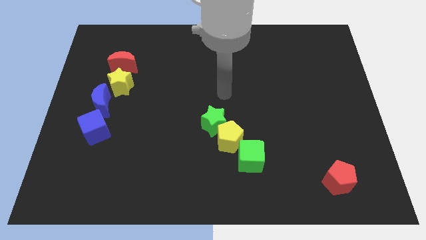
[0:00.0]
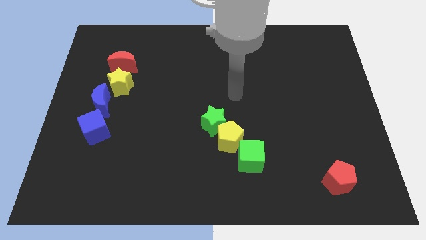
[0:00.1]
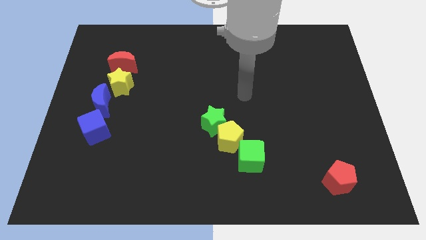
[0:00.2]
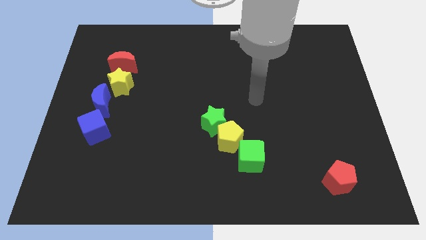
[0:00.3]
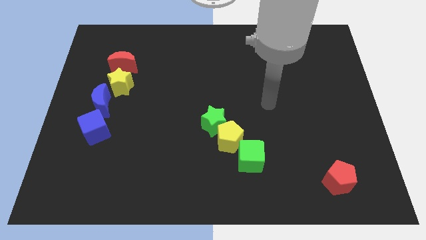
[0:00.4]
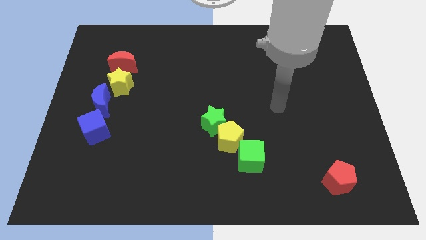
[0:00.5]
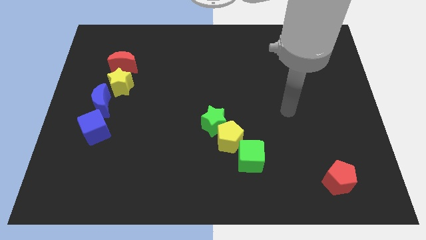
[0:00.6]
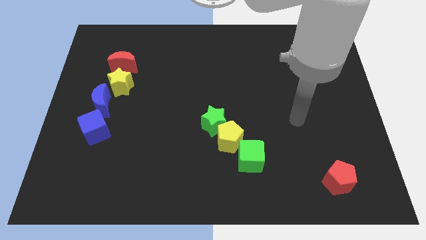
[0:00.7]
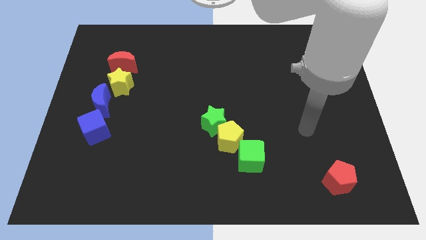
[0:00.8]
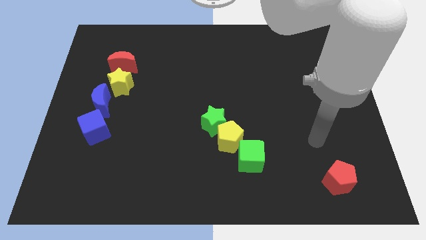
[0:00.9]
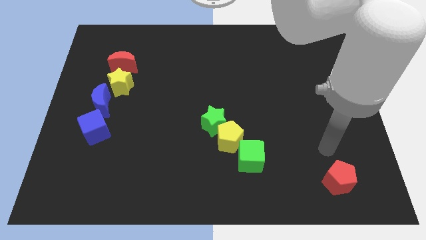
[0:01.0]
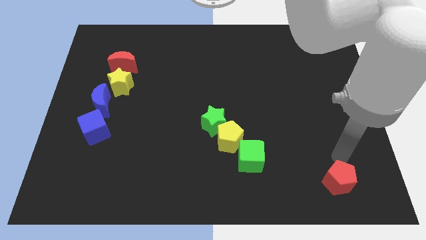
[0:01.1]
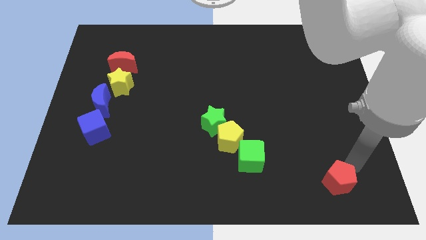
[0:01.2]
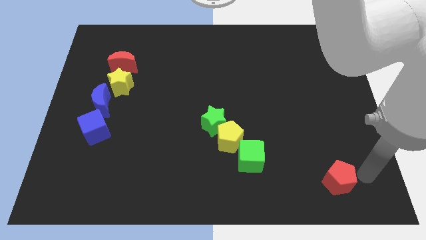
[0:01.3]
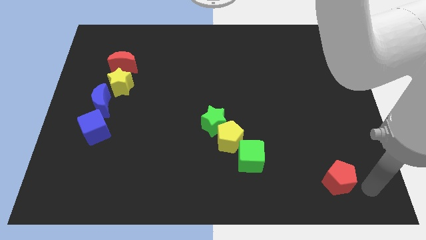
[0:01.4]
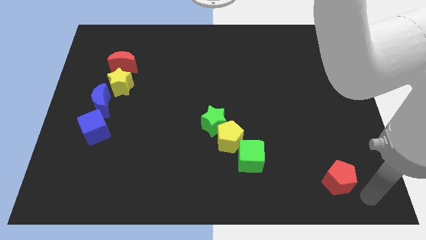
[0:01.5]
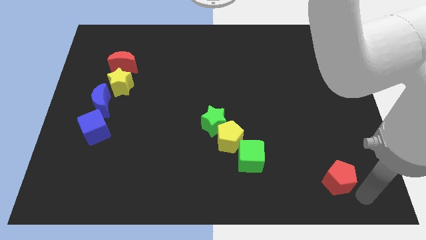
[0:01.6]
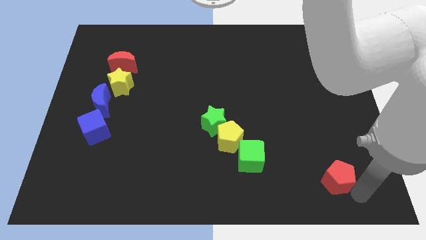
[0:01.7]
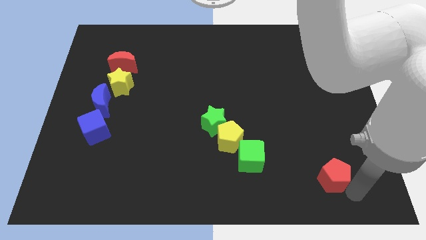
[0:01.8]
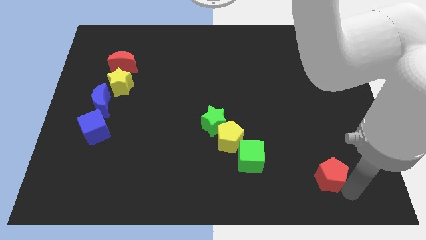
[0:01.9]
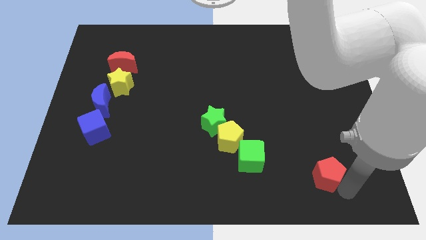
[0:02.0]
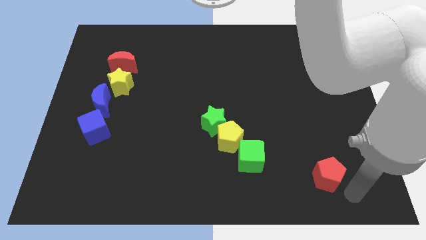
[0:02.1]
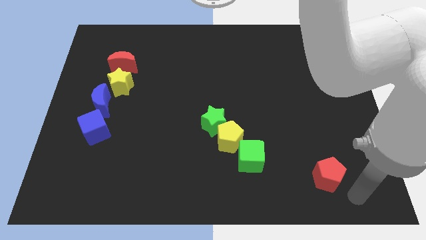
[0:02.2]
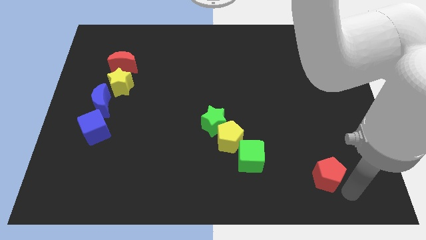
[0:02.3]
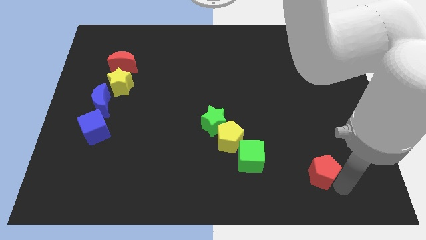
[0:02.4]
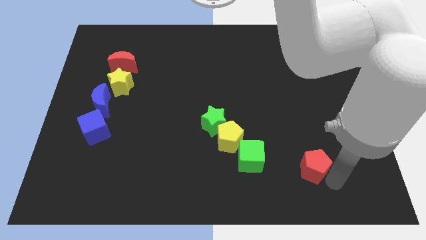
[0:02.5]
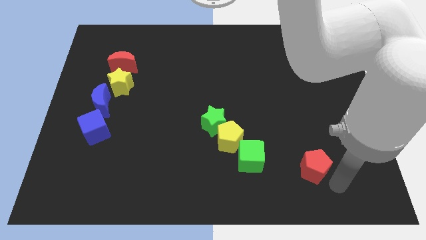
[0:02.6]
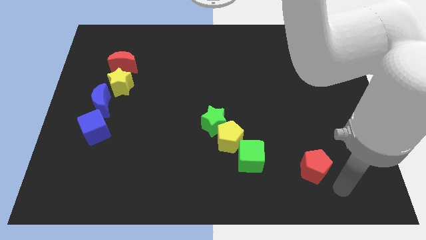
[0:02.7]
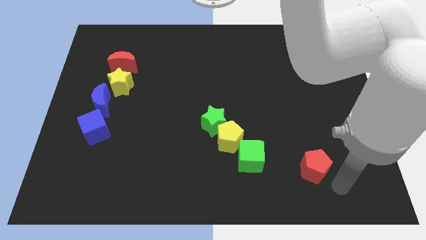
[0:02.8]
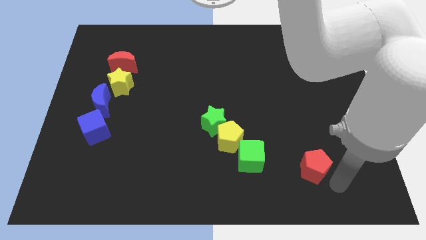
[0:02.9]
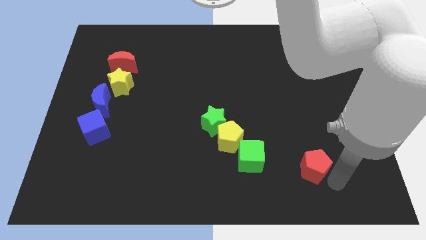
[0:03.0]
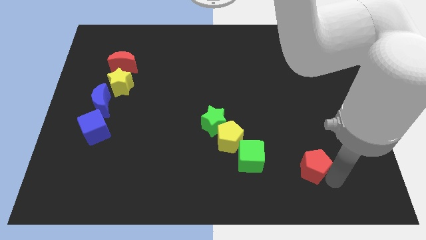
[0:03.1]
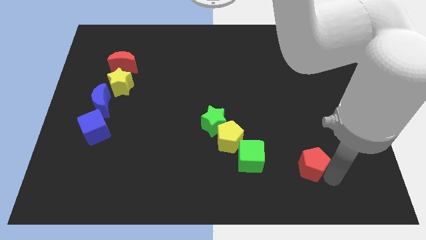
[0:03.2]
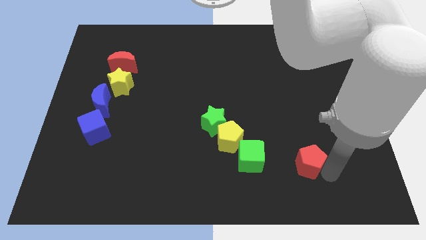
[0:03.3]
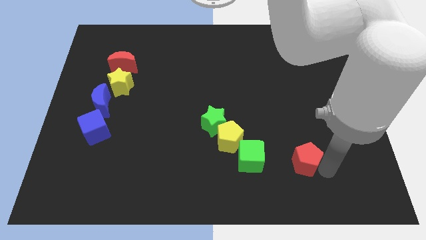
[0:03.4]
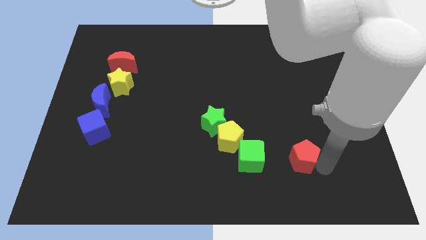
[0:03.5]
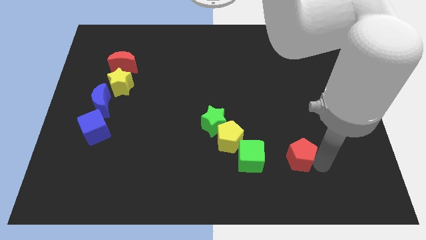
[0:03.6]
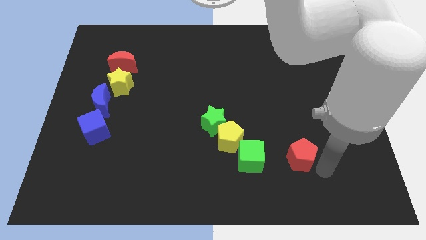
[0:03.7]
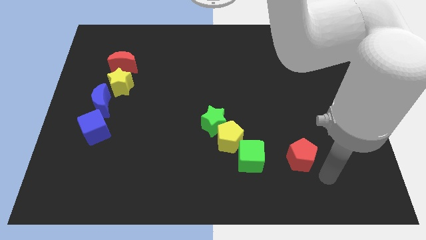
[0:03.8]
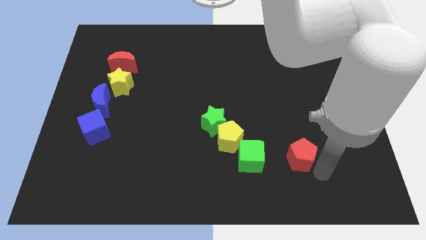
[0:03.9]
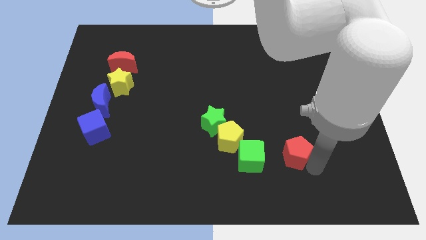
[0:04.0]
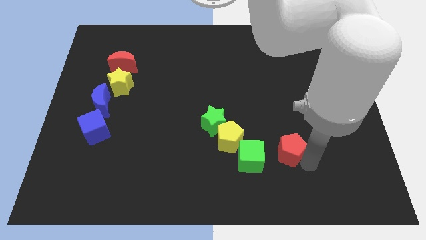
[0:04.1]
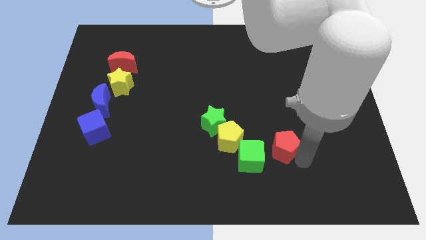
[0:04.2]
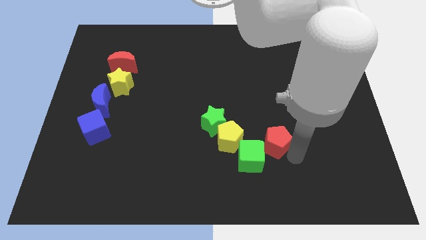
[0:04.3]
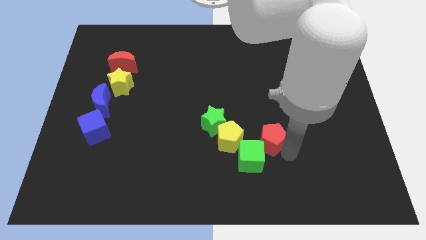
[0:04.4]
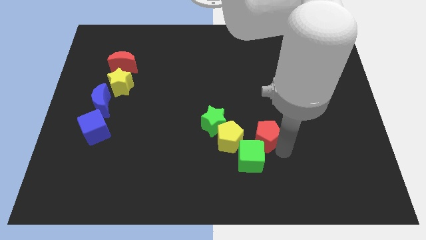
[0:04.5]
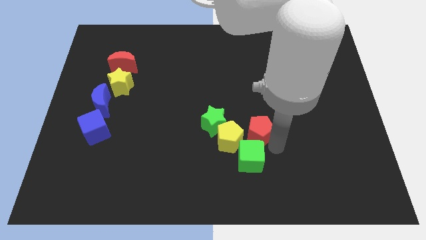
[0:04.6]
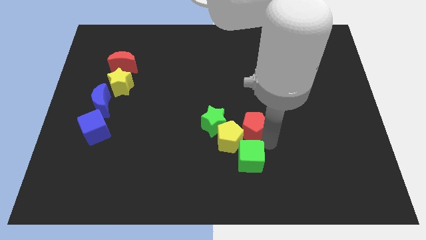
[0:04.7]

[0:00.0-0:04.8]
move the red pentagon upwards and to the left

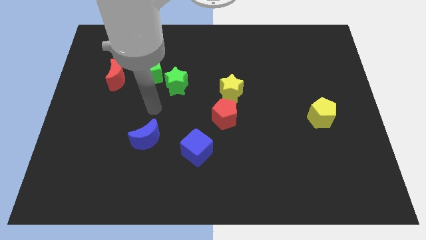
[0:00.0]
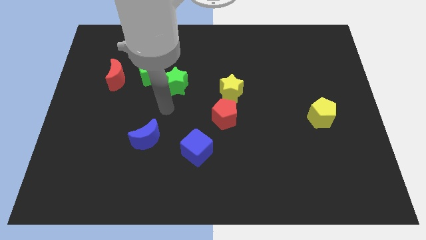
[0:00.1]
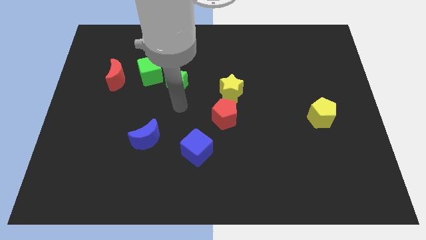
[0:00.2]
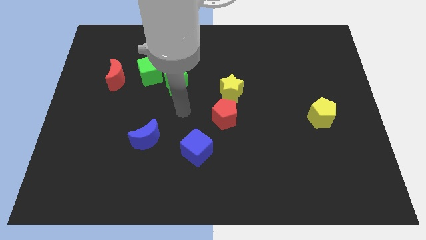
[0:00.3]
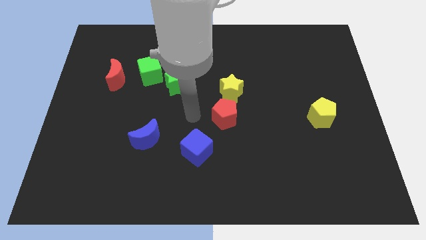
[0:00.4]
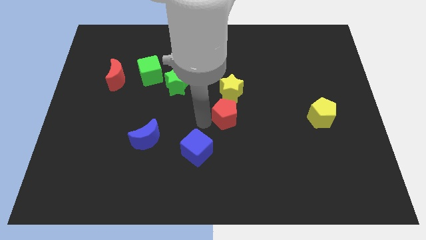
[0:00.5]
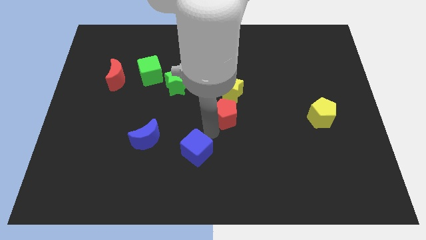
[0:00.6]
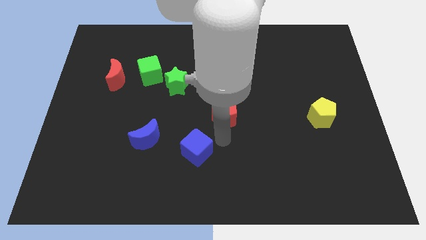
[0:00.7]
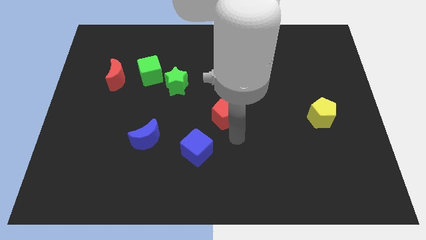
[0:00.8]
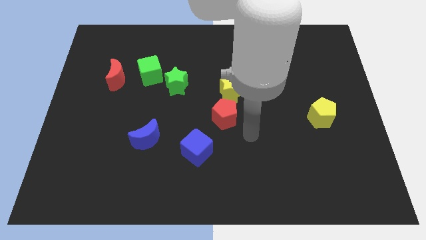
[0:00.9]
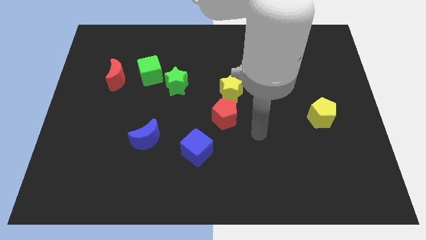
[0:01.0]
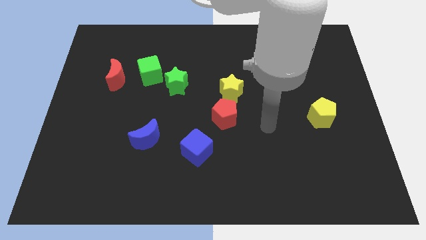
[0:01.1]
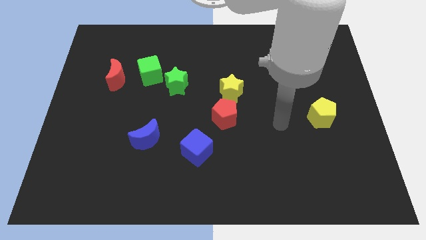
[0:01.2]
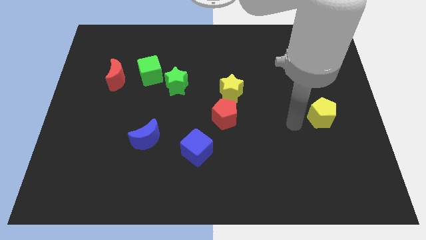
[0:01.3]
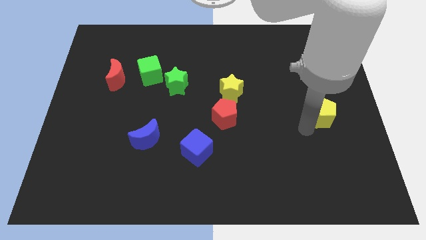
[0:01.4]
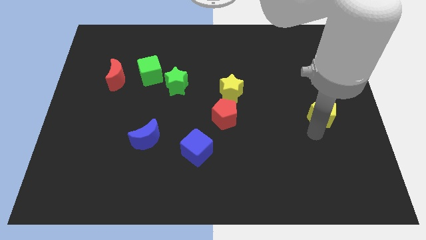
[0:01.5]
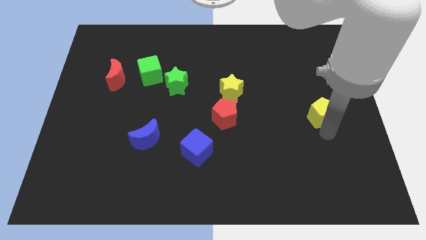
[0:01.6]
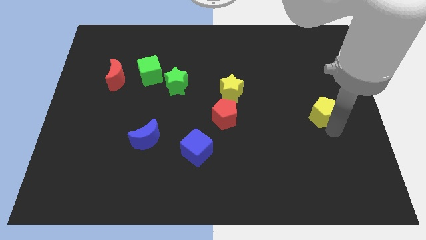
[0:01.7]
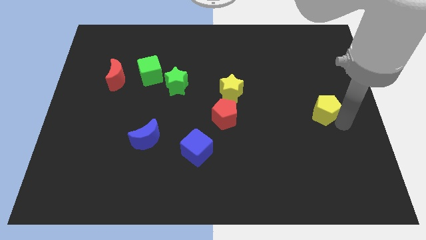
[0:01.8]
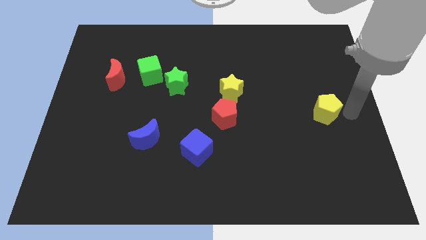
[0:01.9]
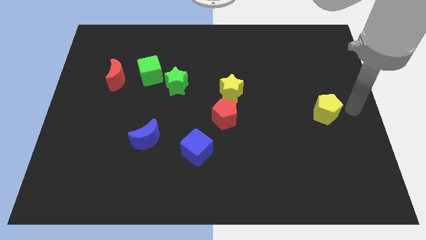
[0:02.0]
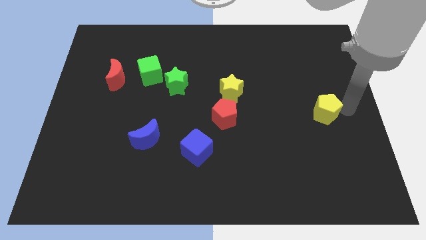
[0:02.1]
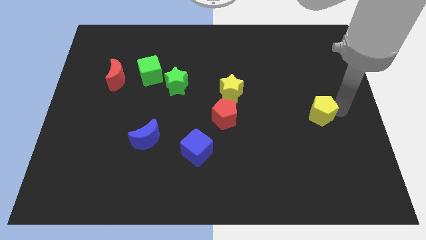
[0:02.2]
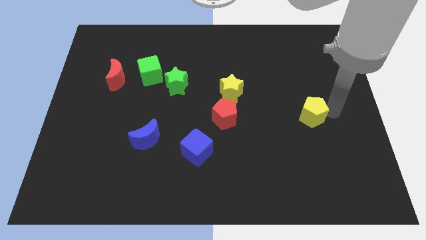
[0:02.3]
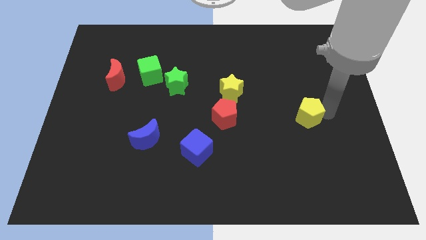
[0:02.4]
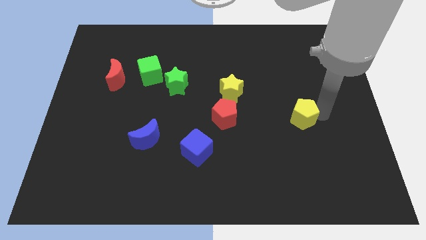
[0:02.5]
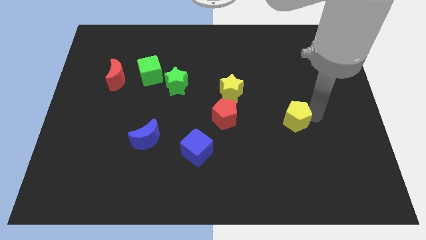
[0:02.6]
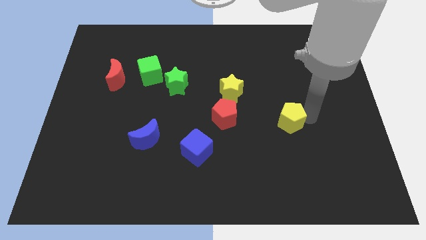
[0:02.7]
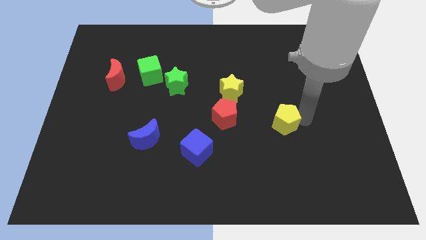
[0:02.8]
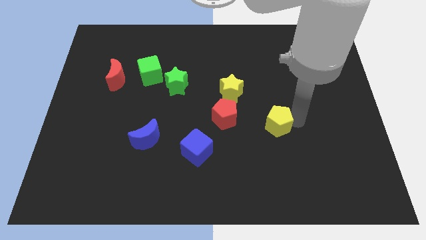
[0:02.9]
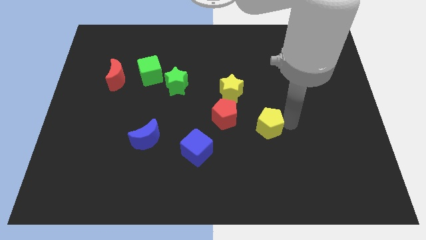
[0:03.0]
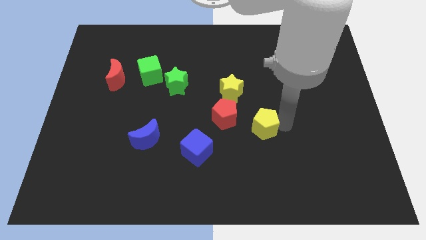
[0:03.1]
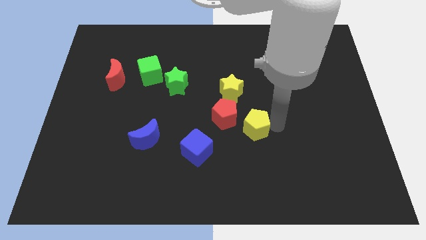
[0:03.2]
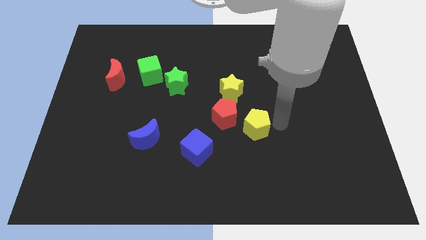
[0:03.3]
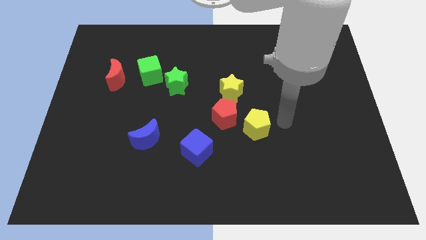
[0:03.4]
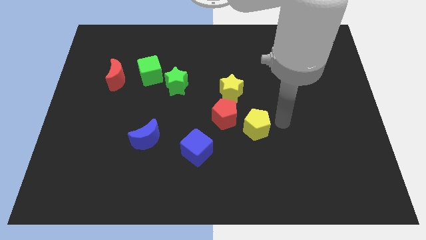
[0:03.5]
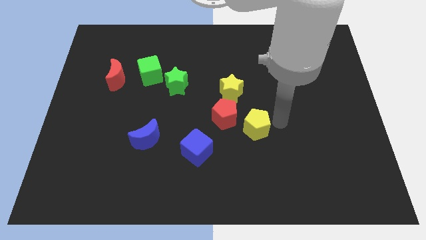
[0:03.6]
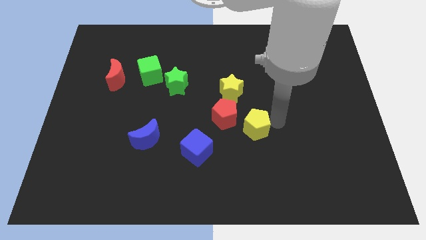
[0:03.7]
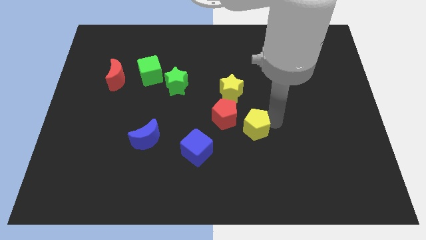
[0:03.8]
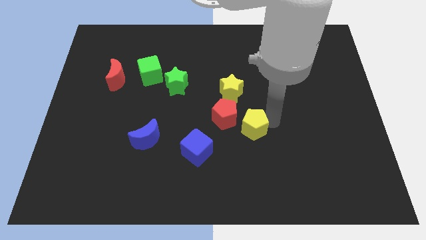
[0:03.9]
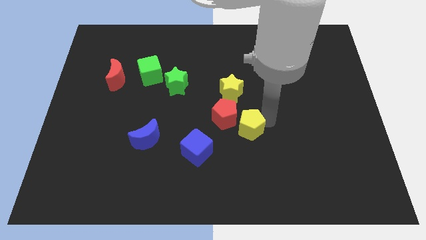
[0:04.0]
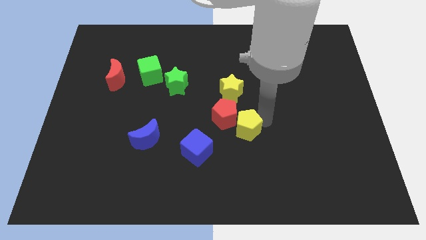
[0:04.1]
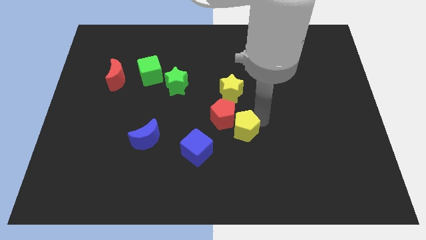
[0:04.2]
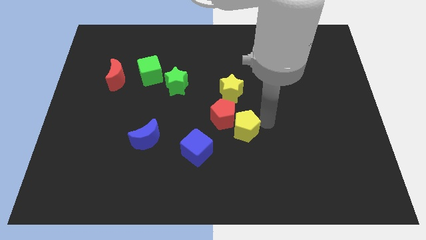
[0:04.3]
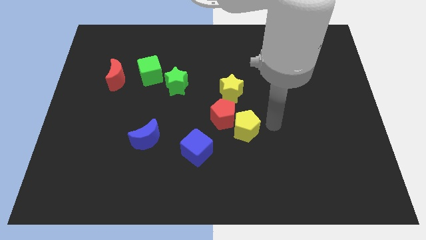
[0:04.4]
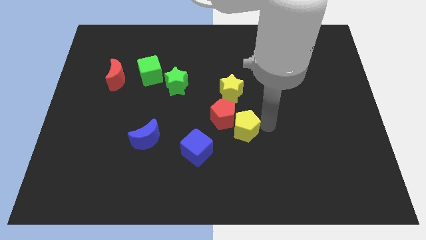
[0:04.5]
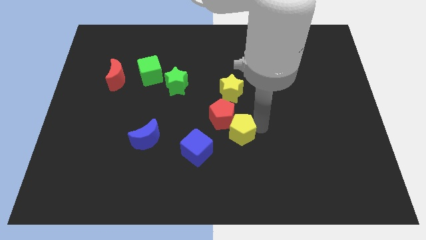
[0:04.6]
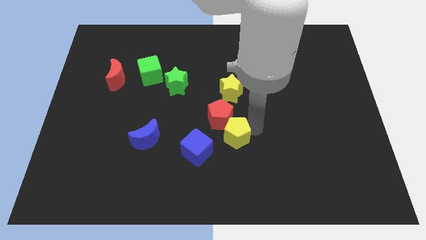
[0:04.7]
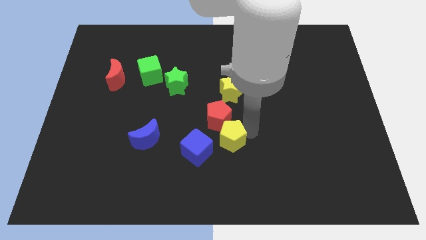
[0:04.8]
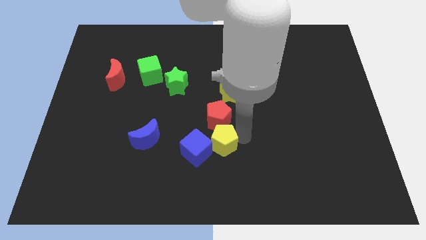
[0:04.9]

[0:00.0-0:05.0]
slide the yellow pentagon left
